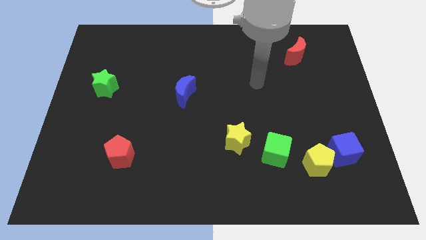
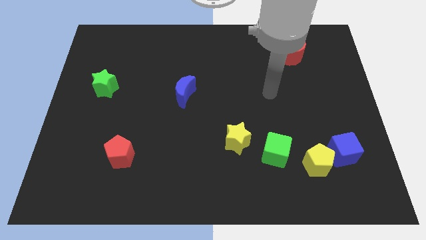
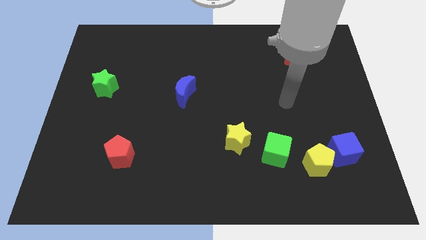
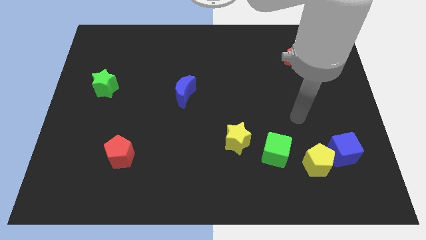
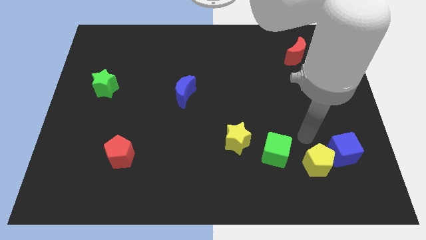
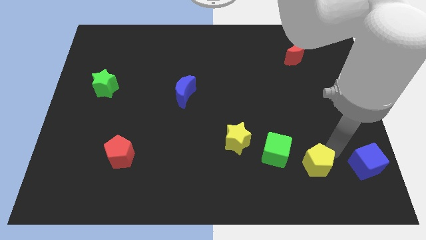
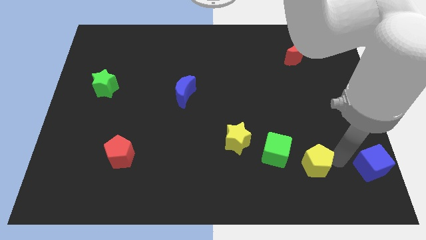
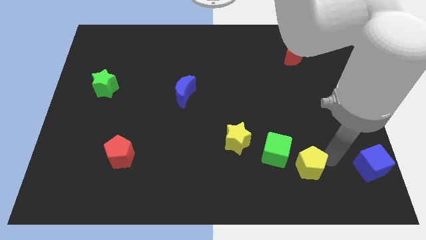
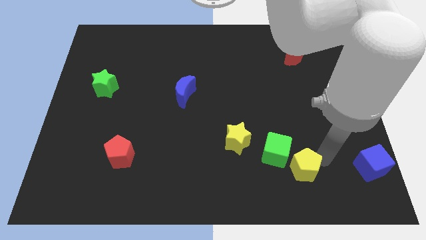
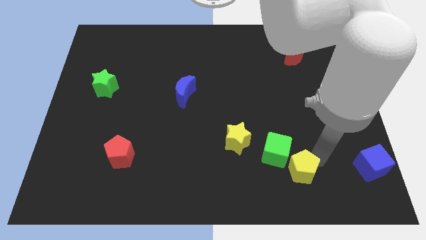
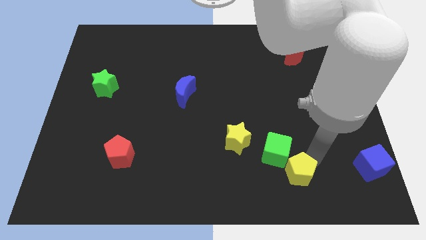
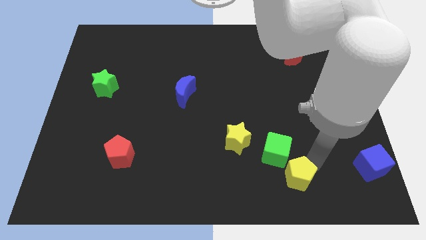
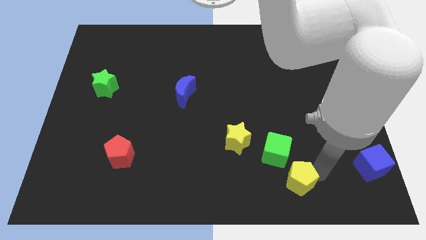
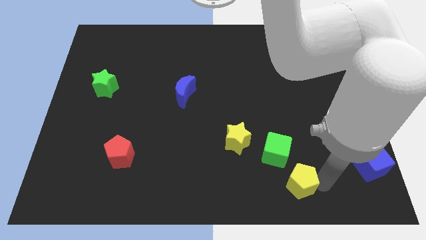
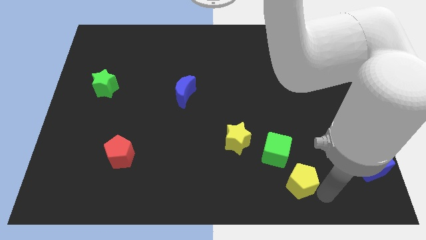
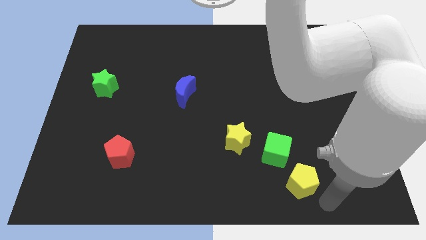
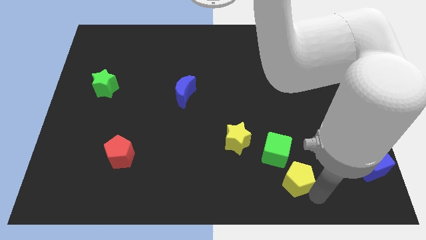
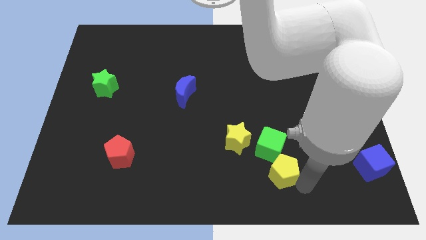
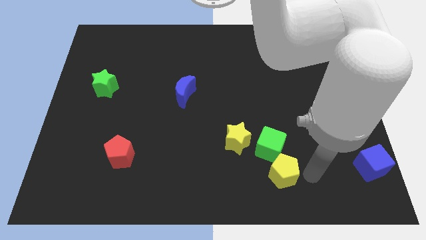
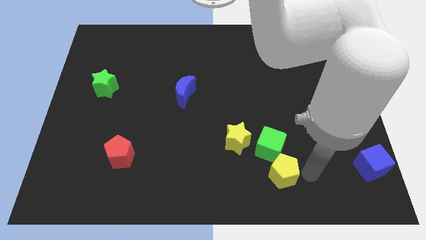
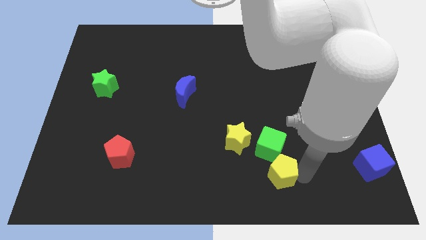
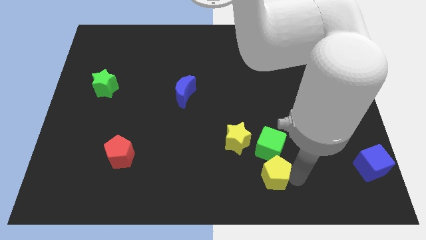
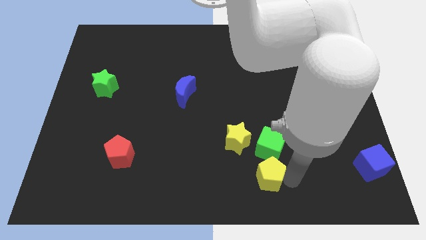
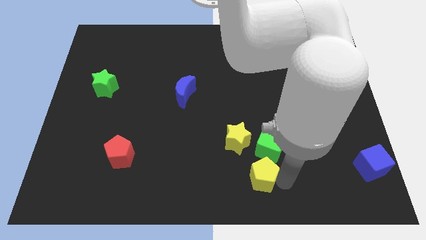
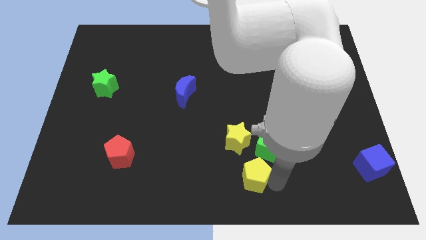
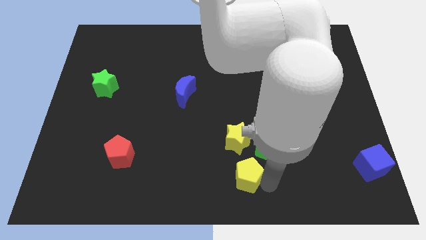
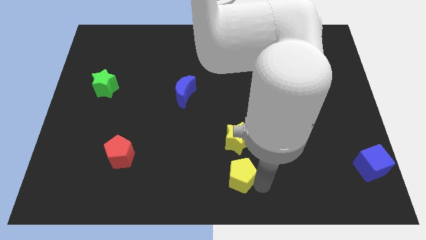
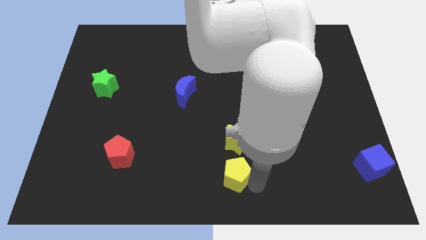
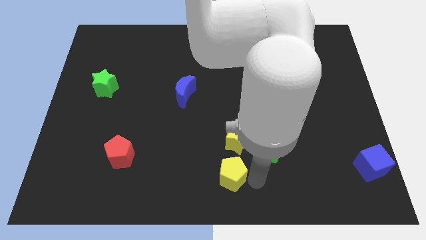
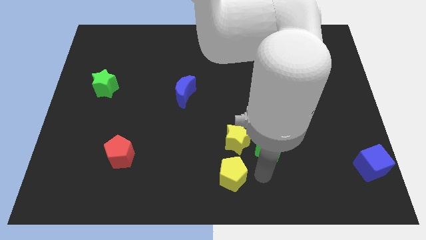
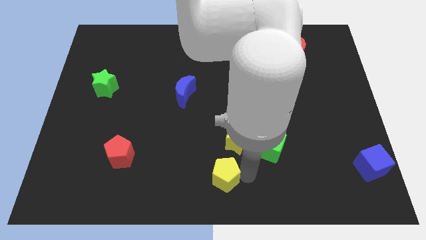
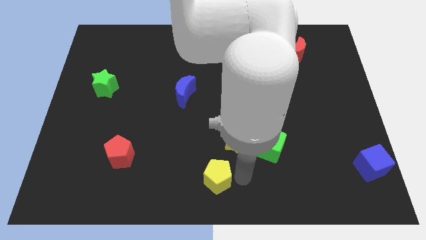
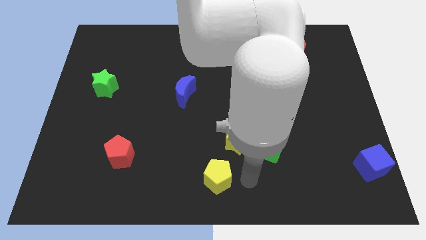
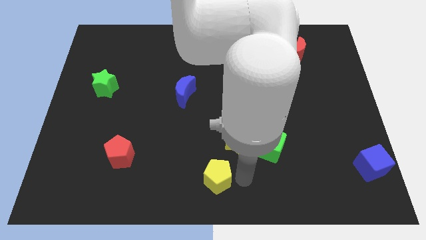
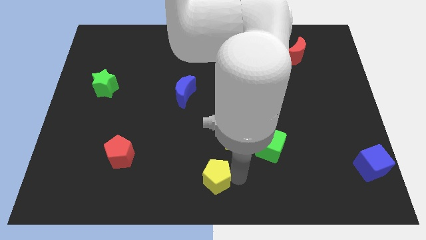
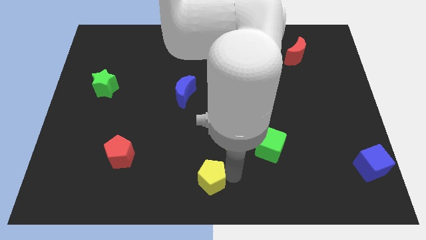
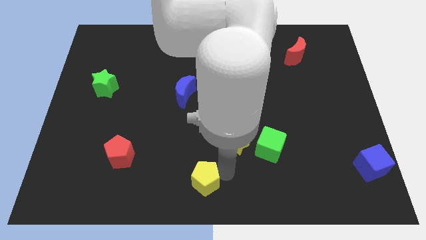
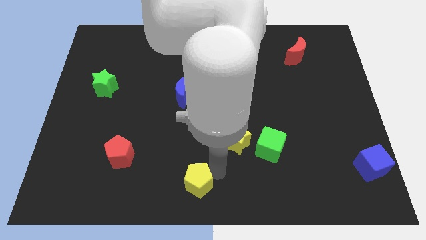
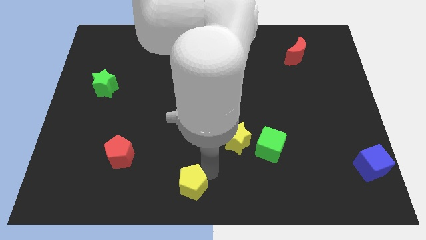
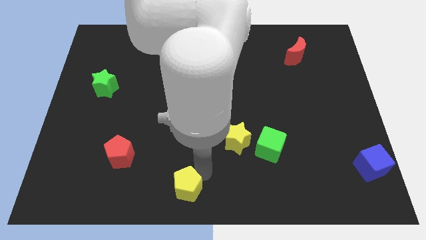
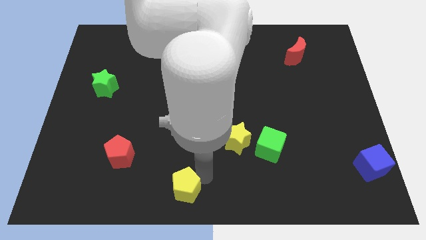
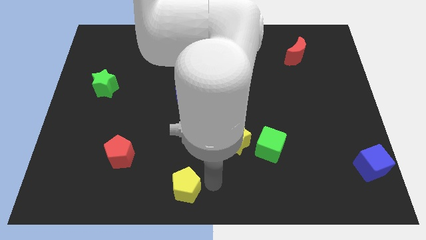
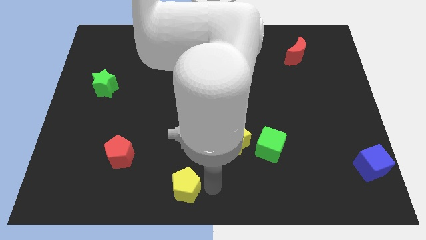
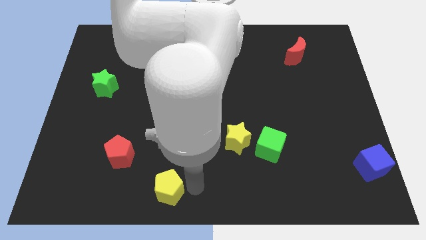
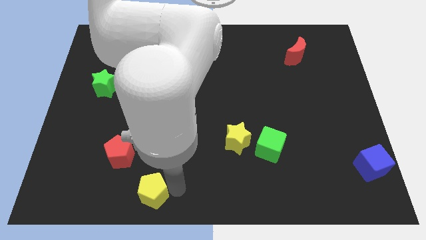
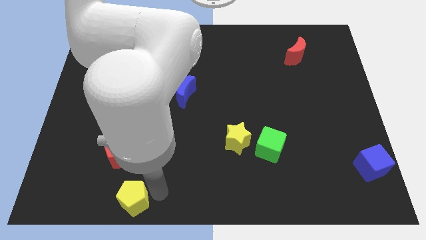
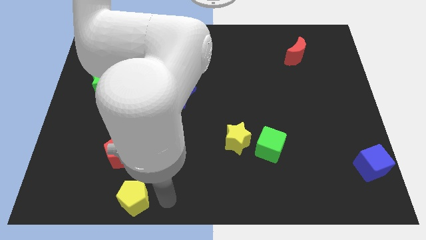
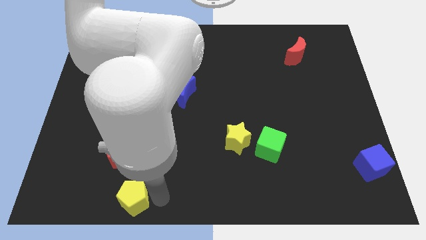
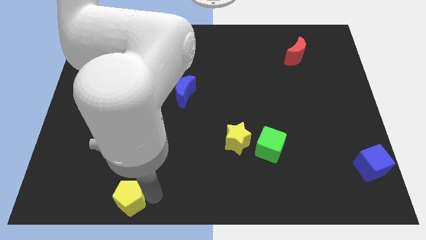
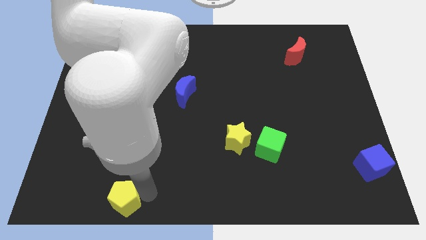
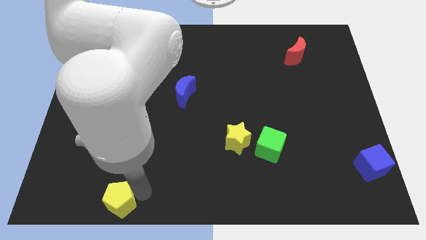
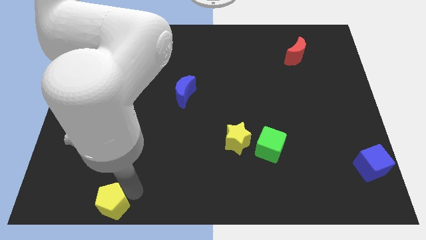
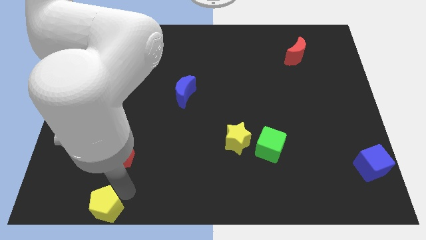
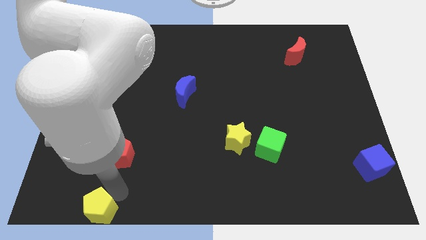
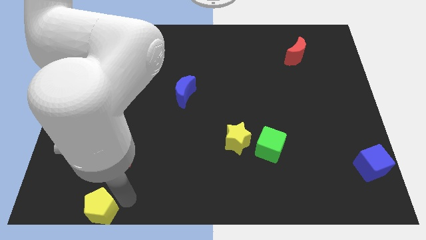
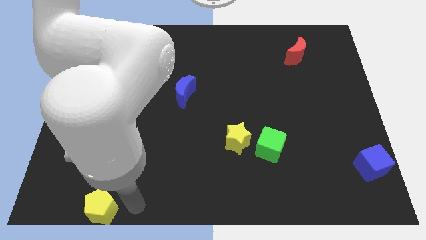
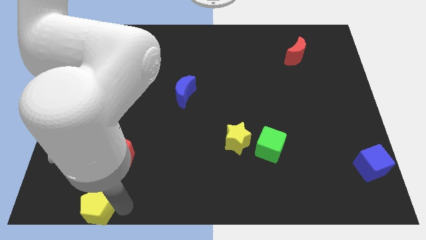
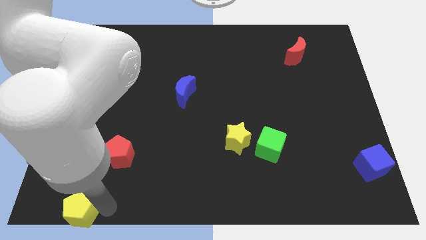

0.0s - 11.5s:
move the yellow pentagon to the lower left corner

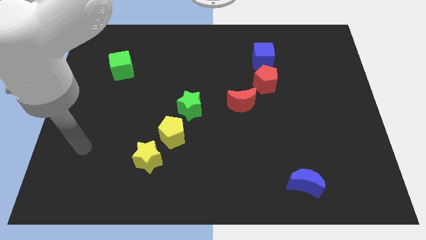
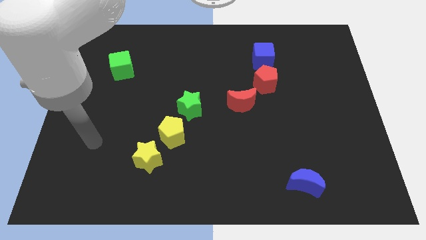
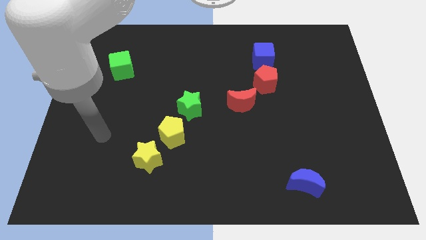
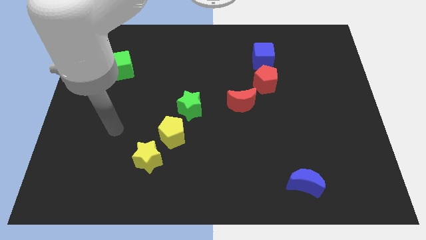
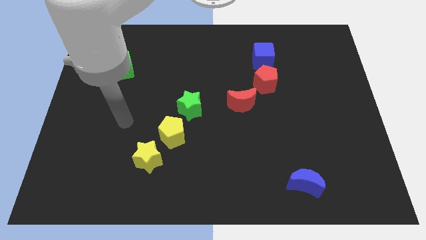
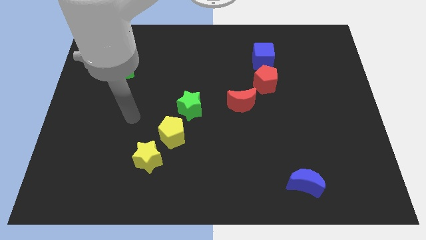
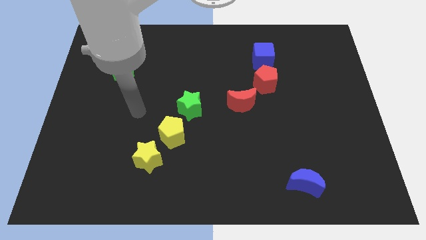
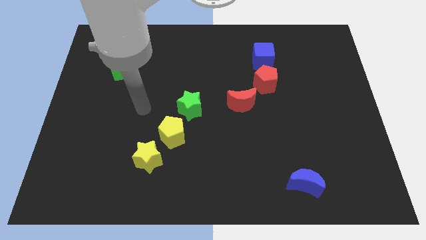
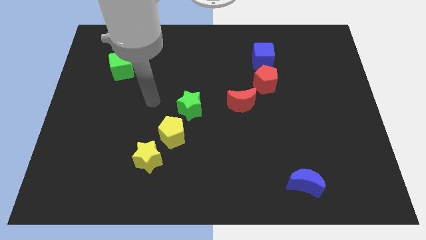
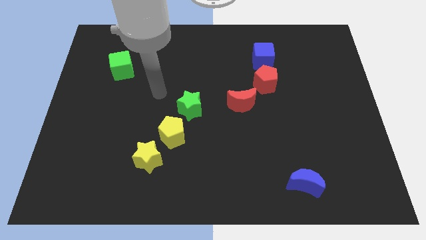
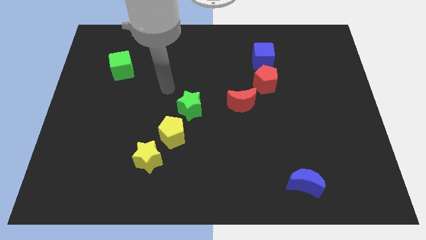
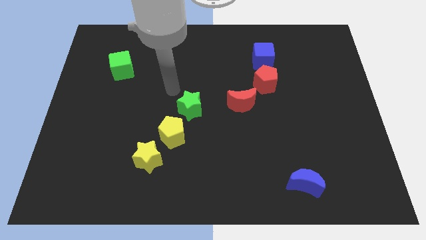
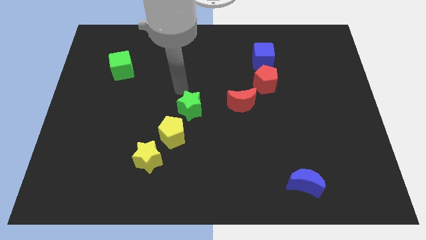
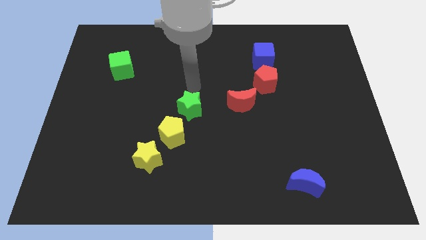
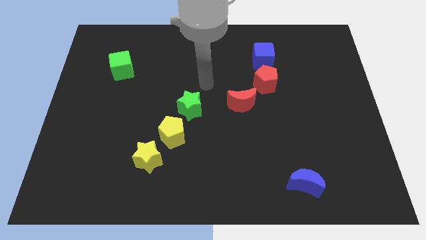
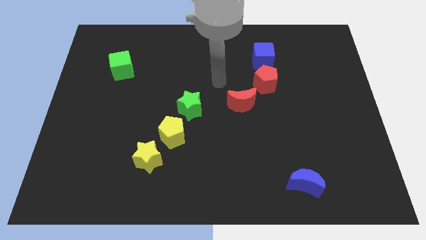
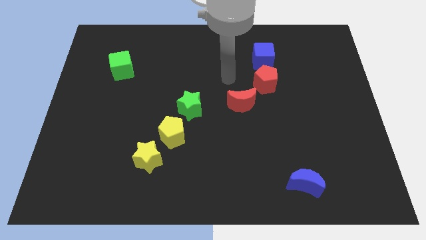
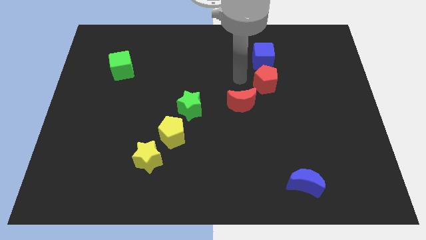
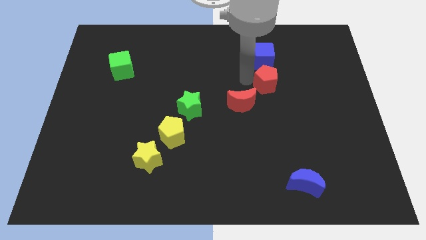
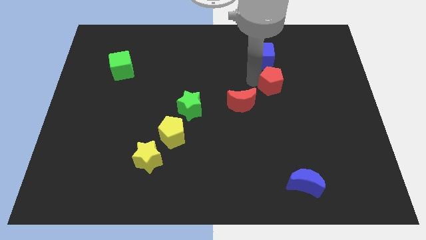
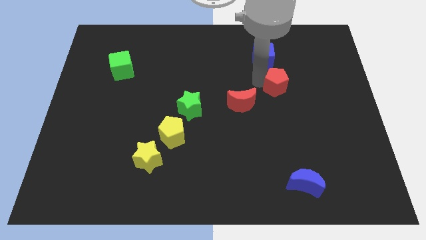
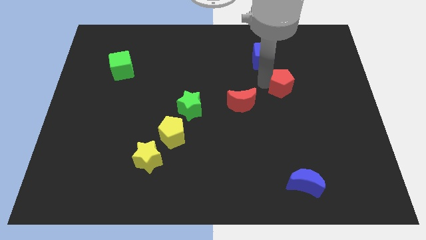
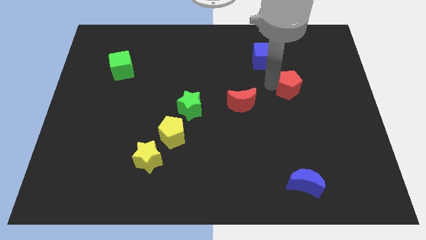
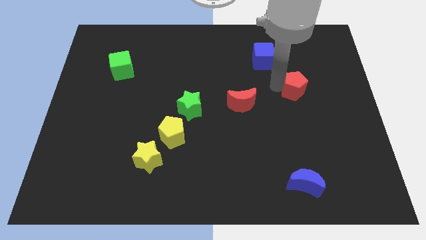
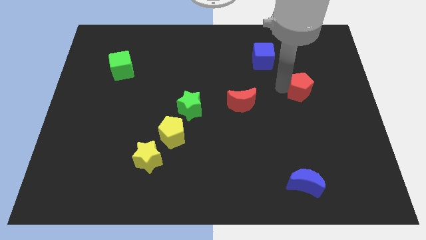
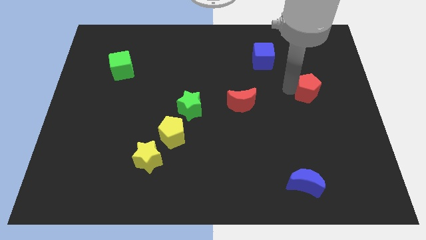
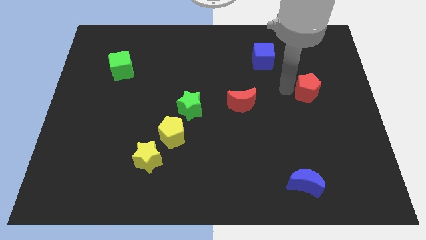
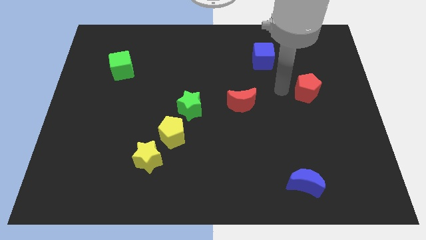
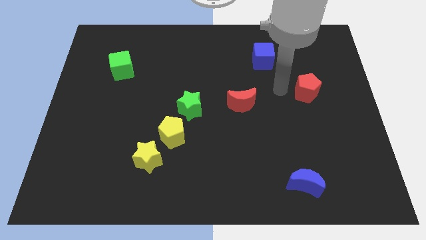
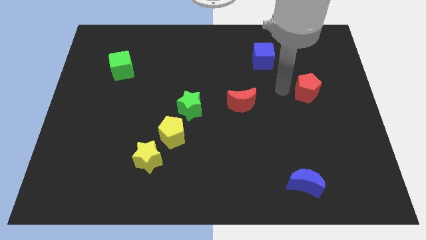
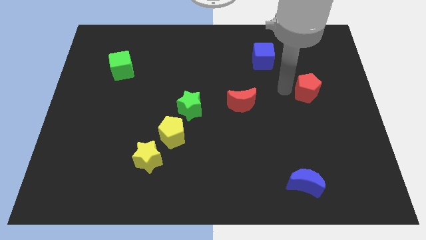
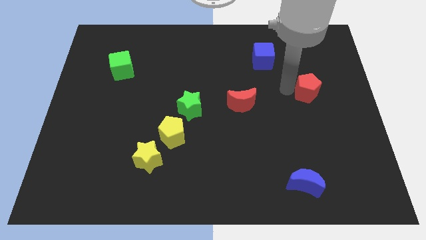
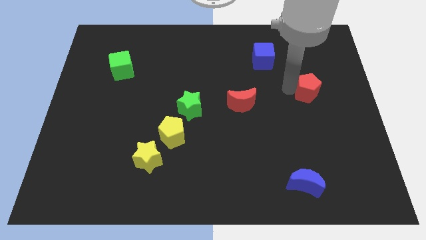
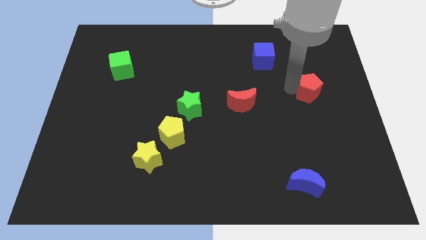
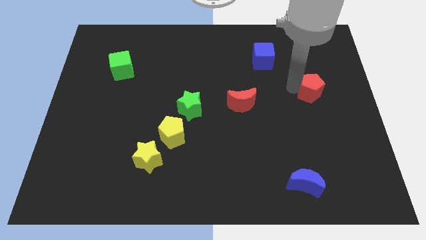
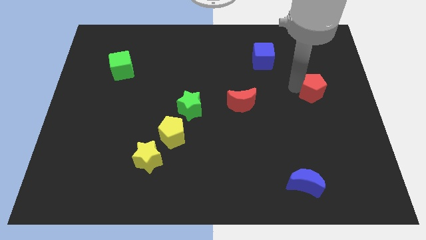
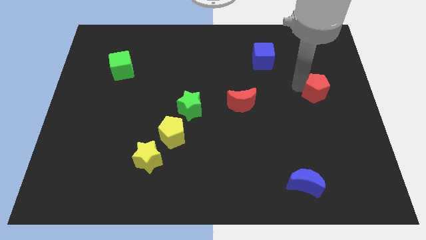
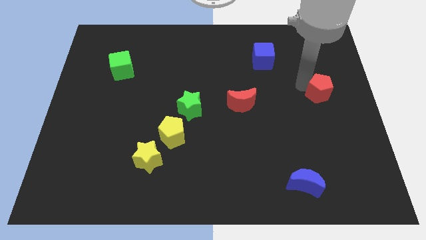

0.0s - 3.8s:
put the red pentagon to the right side
